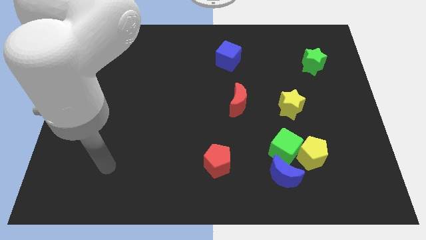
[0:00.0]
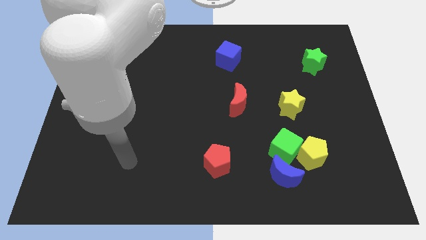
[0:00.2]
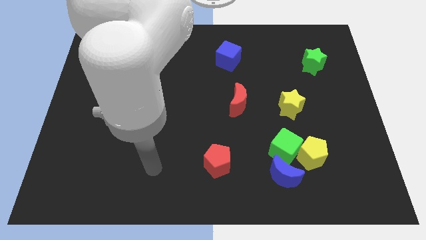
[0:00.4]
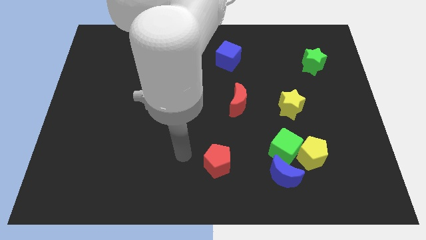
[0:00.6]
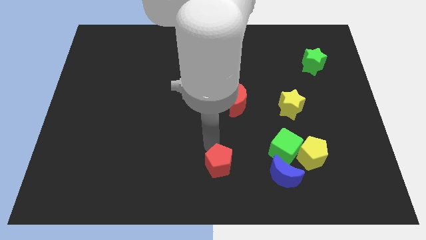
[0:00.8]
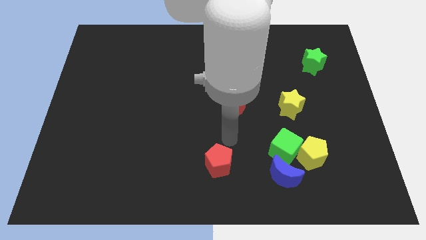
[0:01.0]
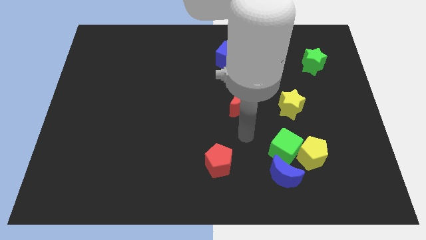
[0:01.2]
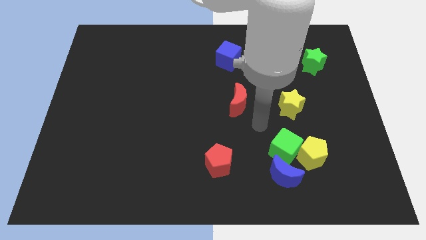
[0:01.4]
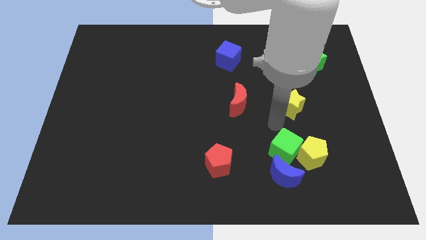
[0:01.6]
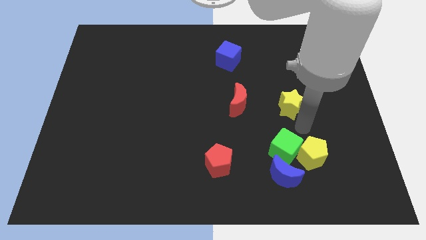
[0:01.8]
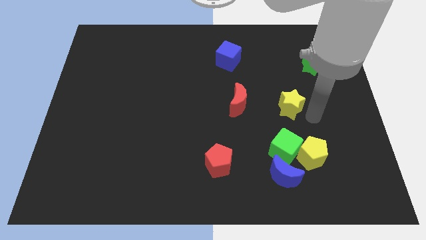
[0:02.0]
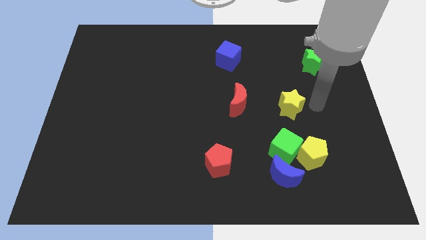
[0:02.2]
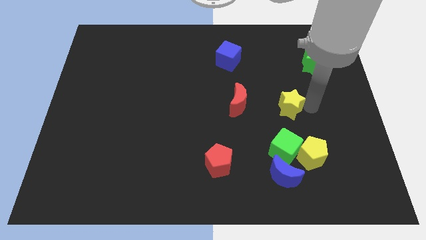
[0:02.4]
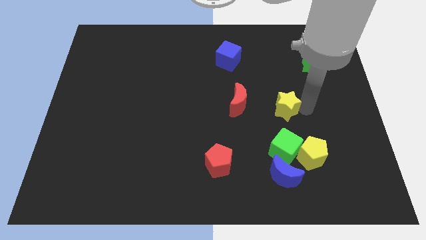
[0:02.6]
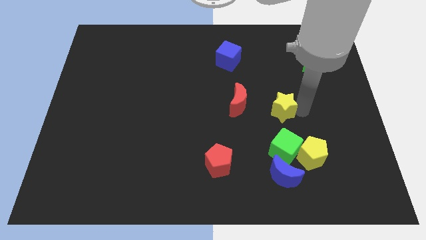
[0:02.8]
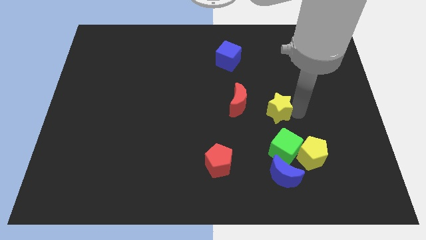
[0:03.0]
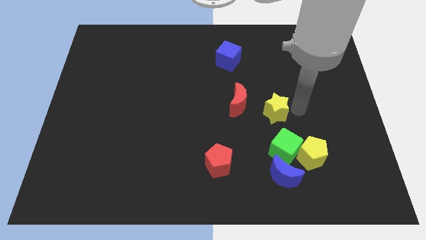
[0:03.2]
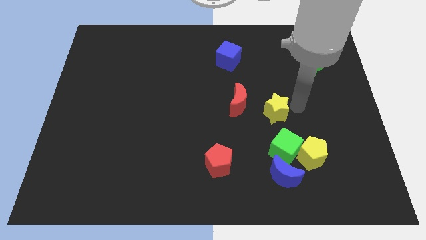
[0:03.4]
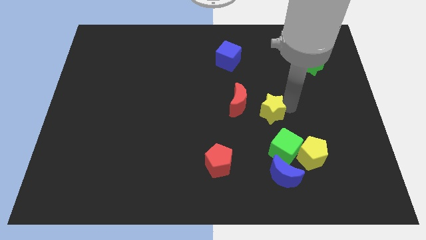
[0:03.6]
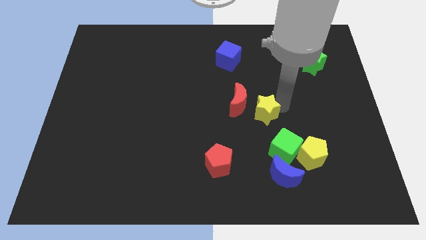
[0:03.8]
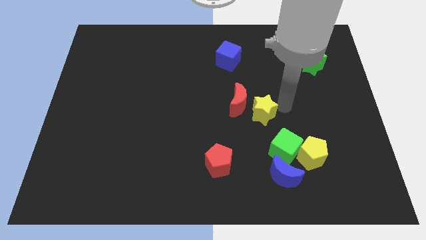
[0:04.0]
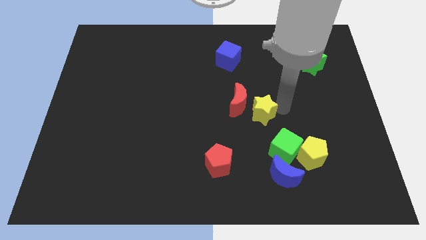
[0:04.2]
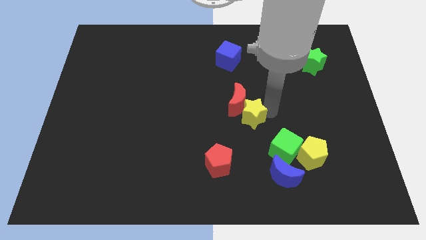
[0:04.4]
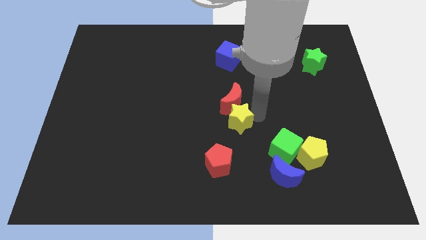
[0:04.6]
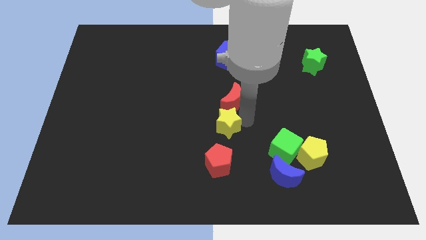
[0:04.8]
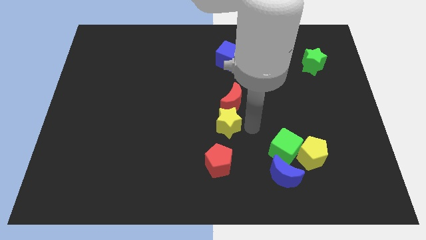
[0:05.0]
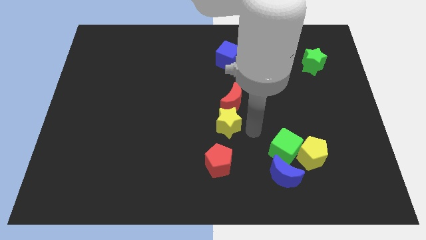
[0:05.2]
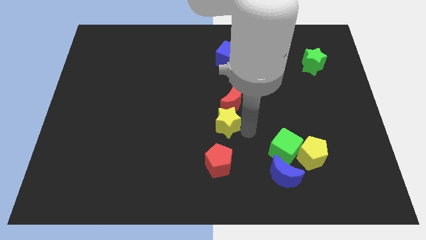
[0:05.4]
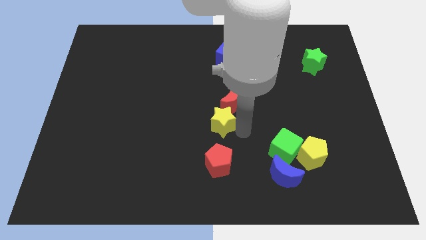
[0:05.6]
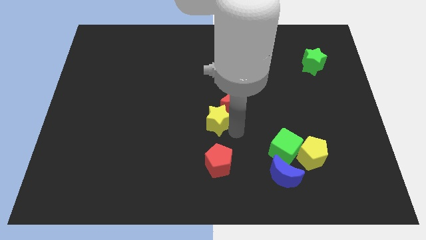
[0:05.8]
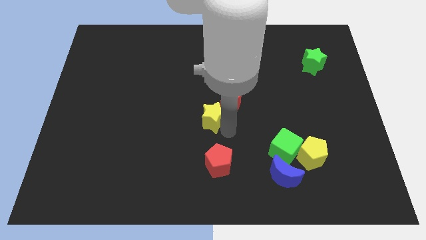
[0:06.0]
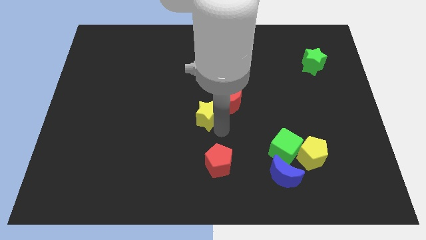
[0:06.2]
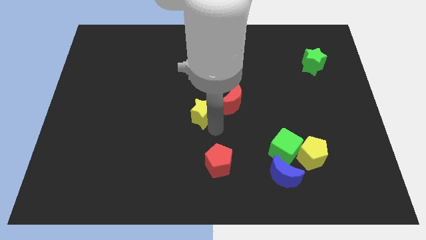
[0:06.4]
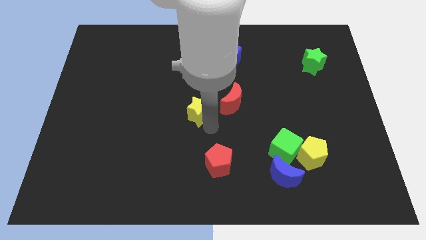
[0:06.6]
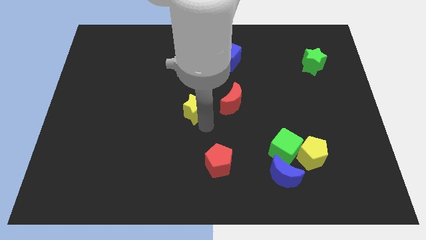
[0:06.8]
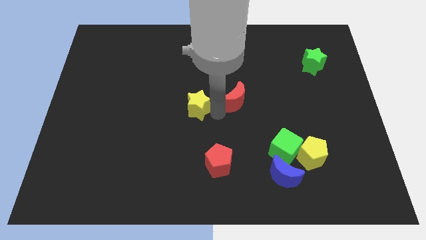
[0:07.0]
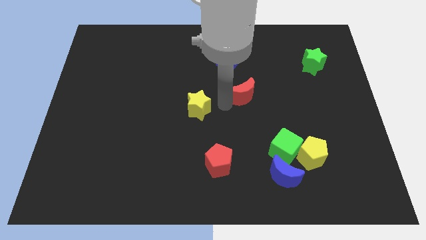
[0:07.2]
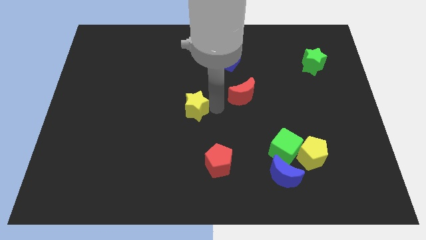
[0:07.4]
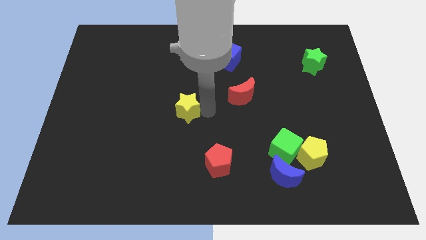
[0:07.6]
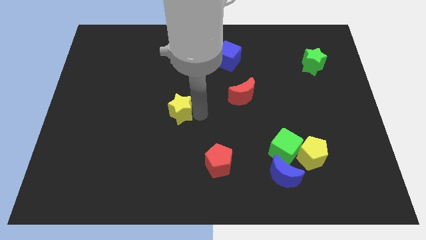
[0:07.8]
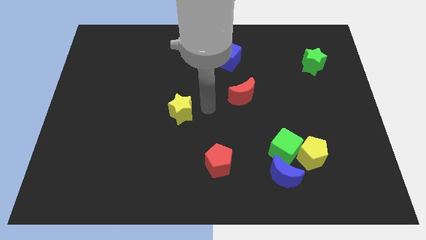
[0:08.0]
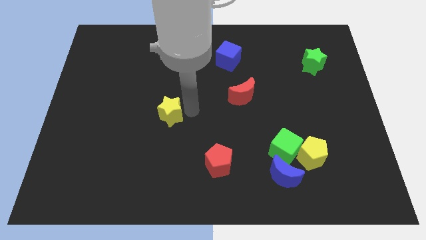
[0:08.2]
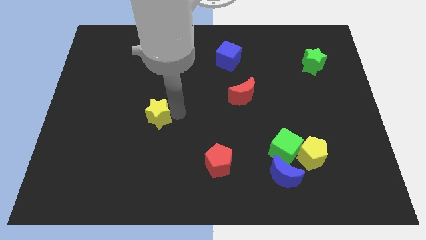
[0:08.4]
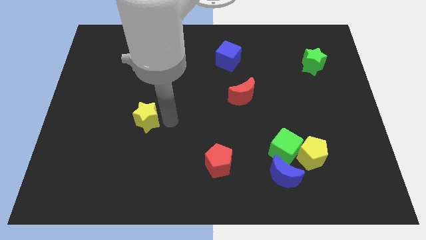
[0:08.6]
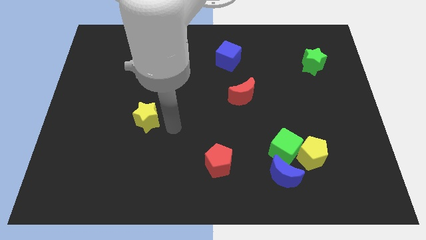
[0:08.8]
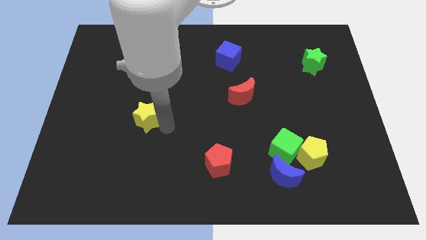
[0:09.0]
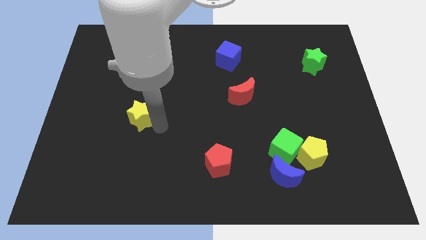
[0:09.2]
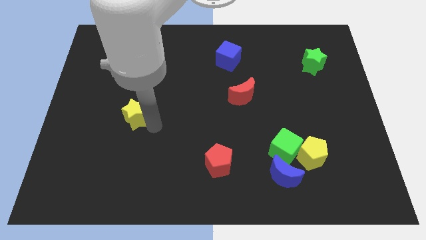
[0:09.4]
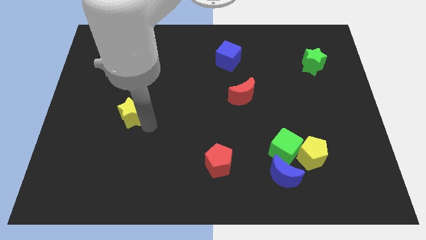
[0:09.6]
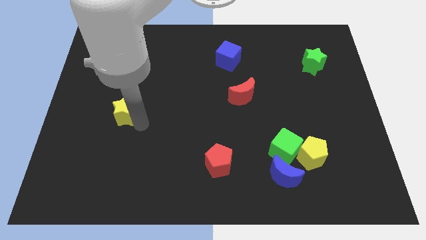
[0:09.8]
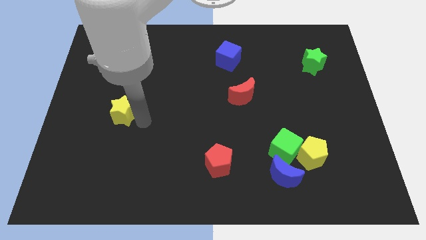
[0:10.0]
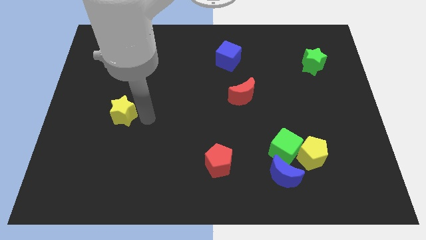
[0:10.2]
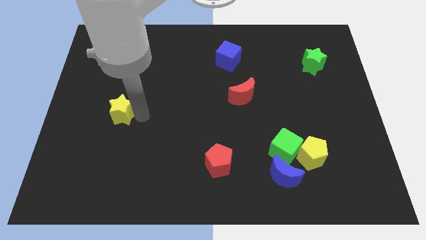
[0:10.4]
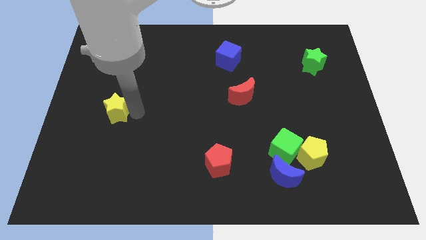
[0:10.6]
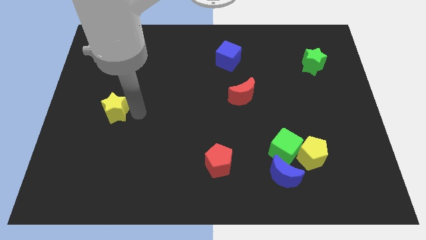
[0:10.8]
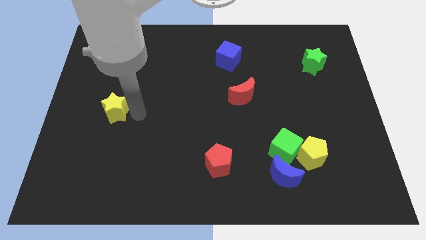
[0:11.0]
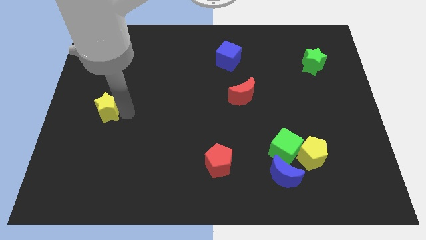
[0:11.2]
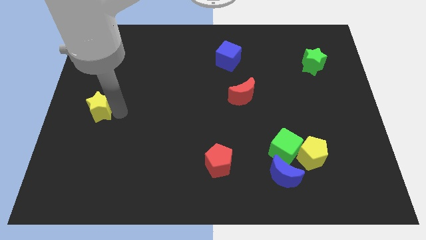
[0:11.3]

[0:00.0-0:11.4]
push the yellow star to the center left
